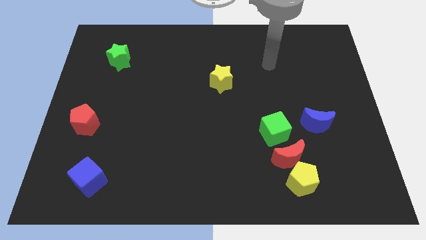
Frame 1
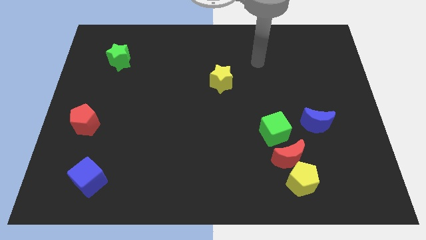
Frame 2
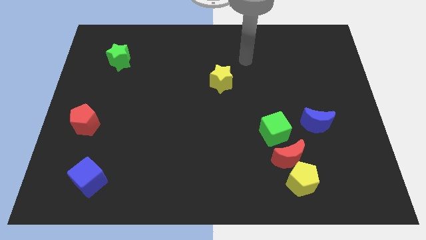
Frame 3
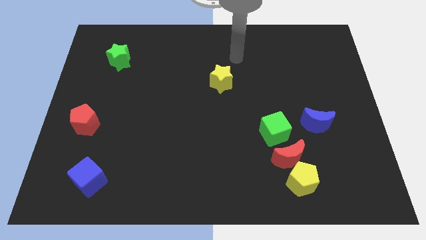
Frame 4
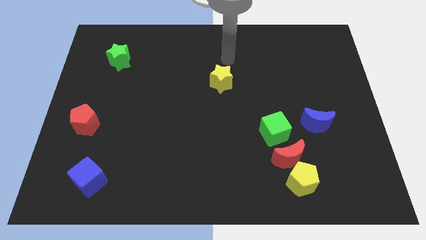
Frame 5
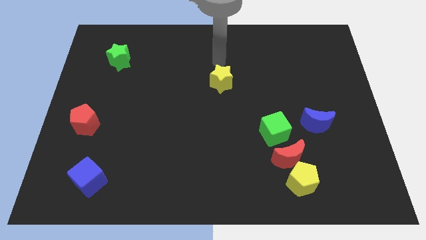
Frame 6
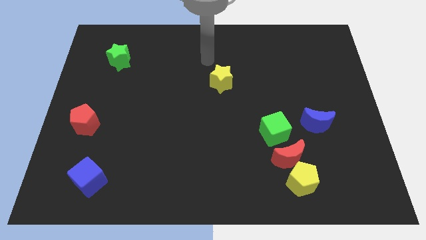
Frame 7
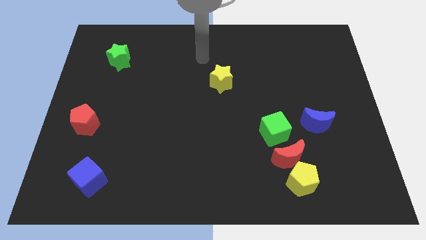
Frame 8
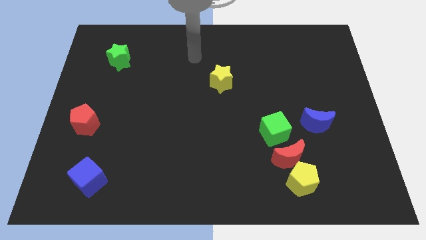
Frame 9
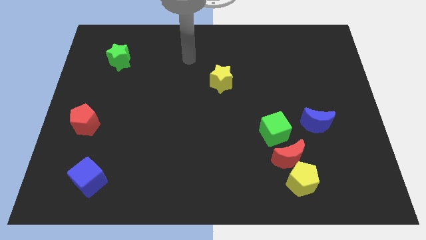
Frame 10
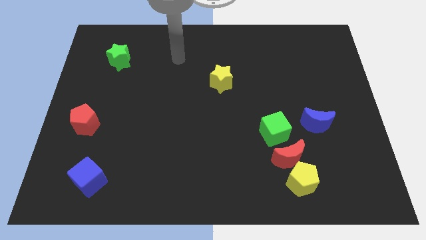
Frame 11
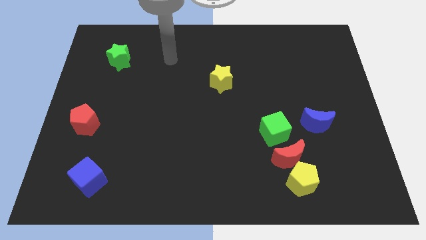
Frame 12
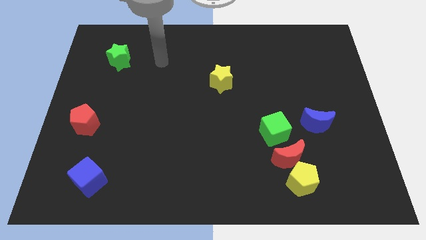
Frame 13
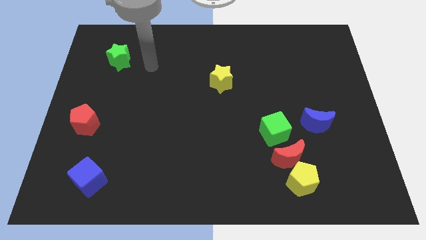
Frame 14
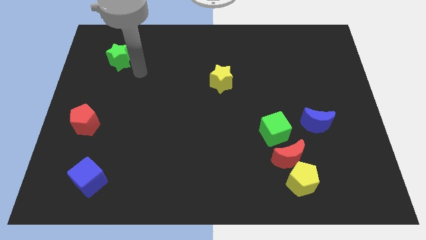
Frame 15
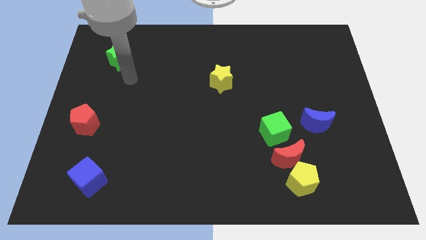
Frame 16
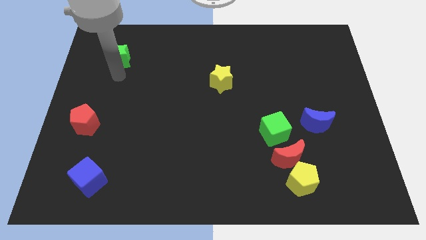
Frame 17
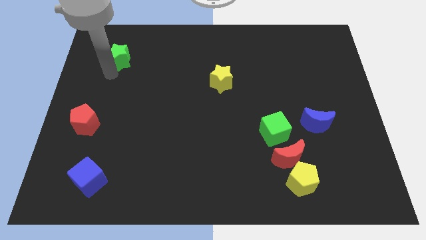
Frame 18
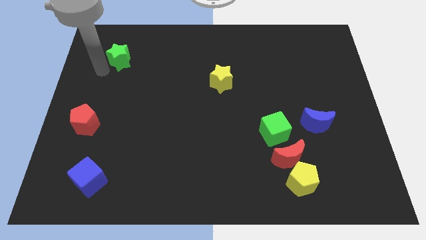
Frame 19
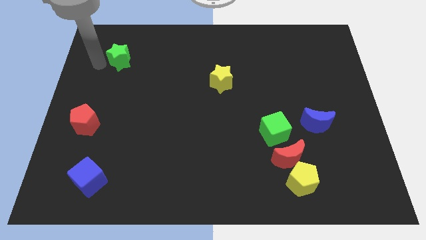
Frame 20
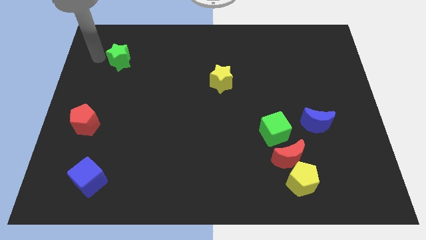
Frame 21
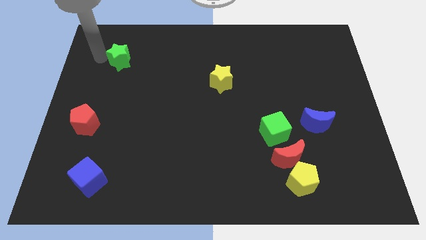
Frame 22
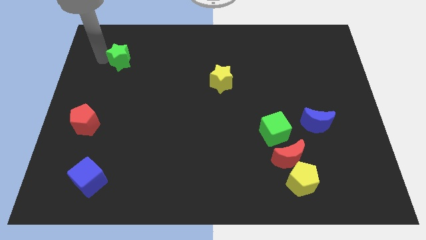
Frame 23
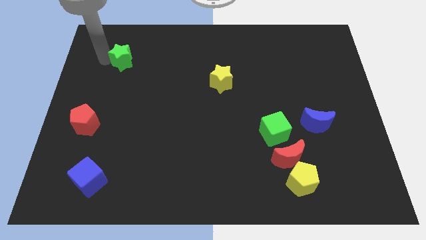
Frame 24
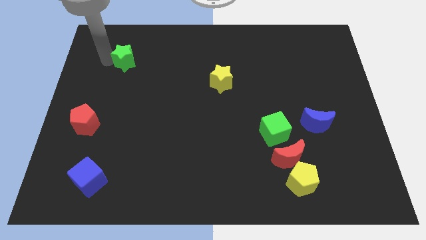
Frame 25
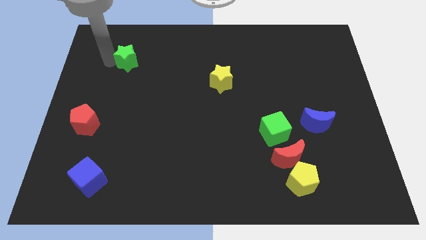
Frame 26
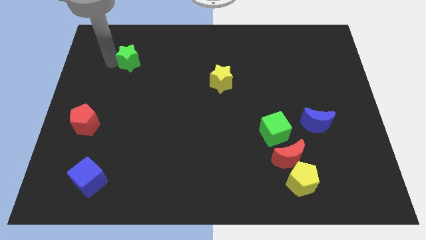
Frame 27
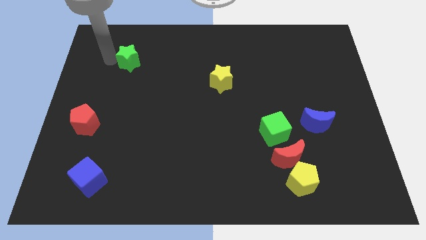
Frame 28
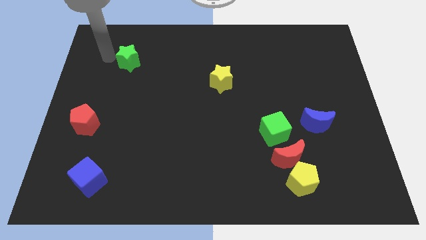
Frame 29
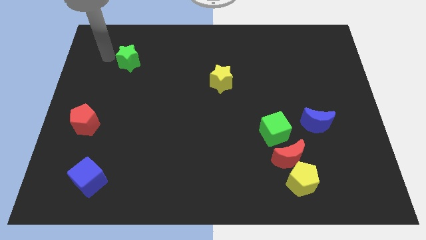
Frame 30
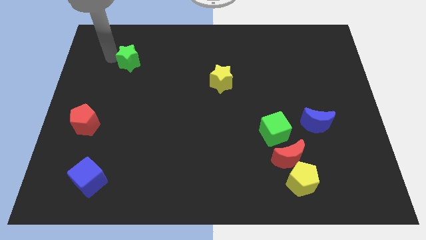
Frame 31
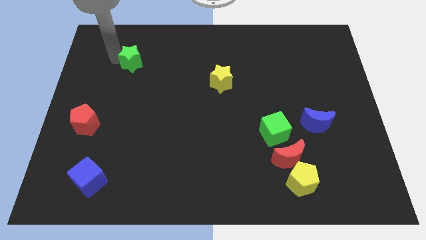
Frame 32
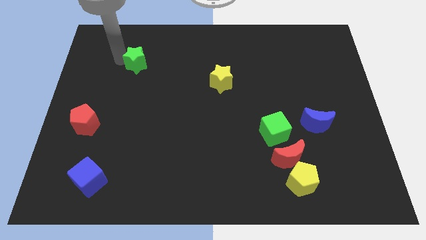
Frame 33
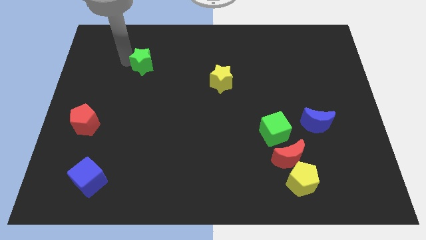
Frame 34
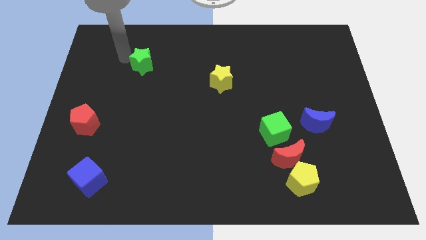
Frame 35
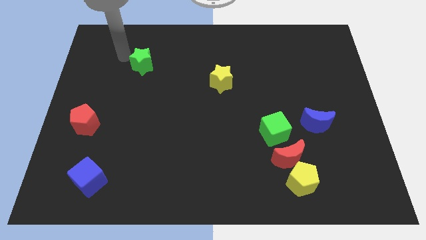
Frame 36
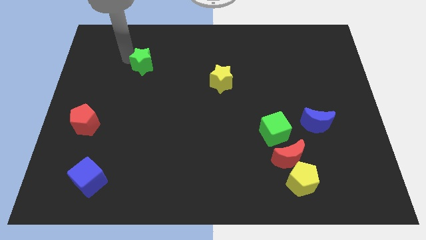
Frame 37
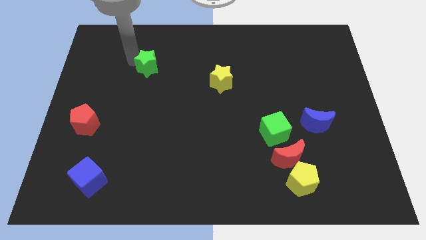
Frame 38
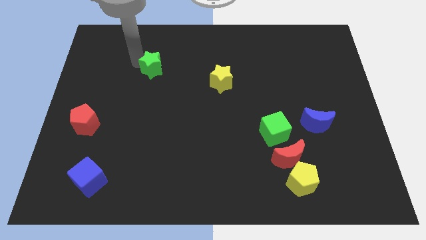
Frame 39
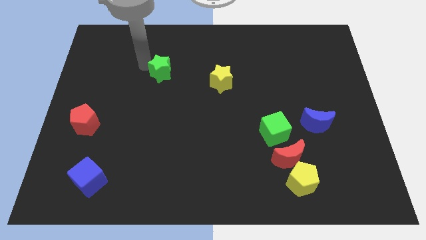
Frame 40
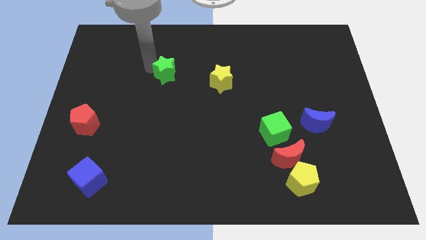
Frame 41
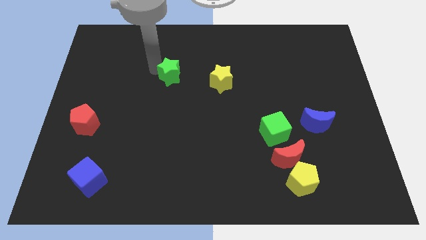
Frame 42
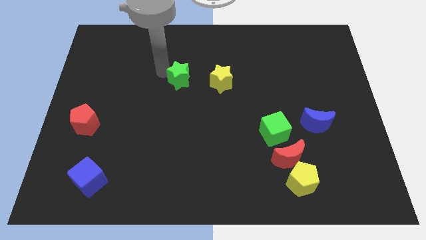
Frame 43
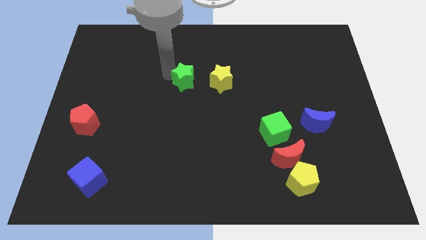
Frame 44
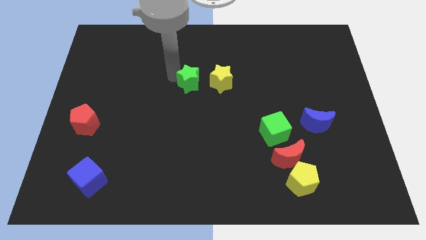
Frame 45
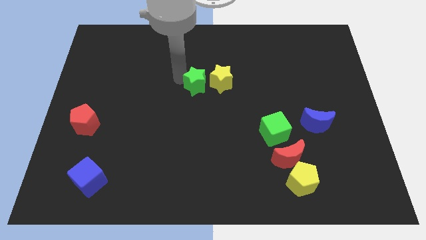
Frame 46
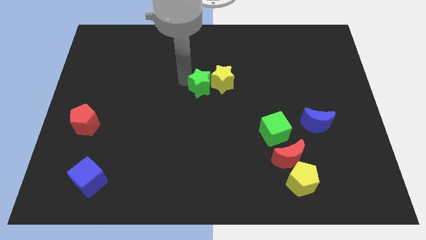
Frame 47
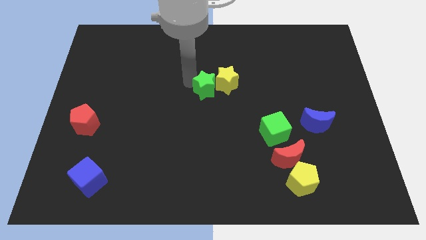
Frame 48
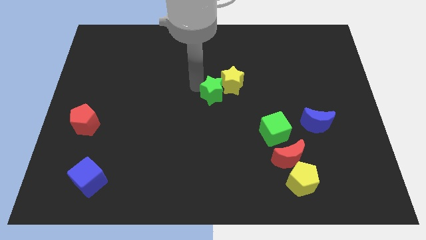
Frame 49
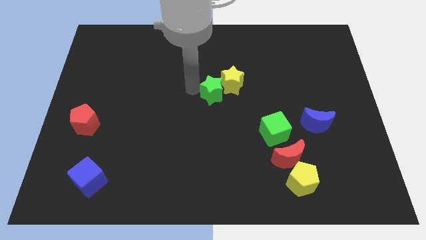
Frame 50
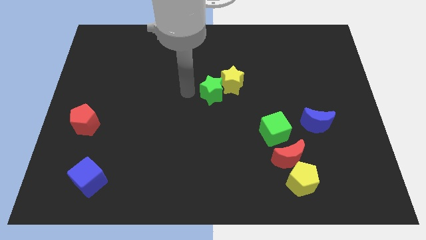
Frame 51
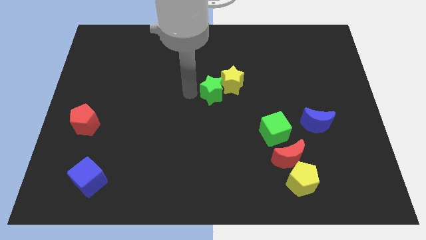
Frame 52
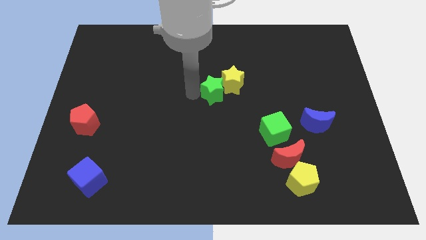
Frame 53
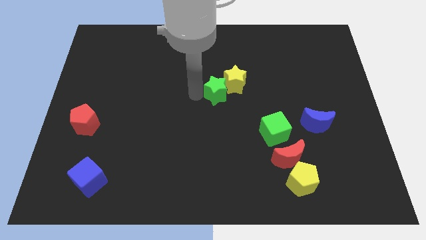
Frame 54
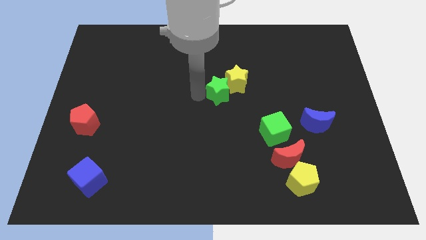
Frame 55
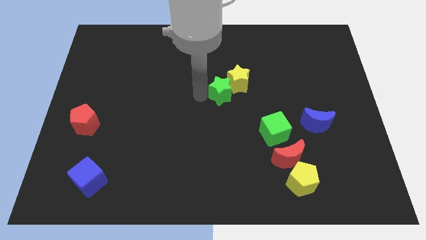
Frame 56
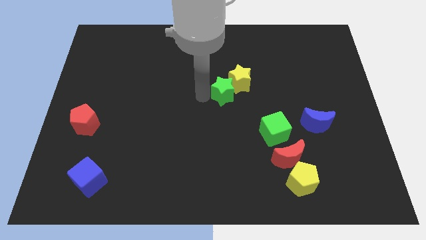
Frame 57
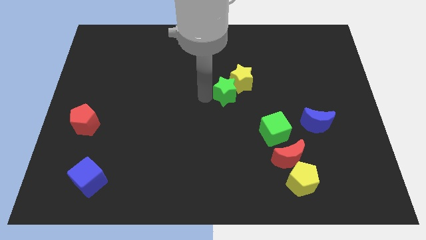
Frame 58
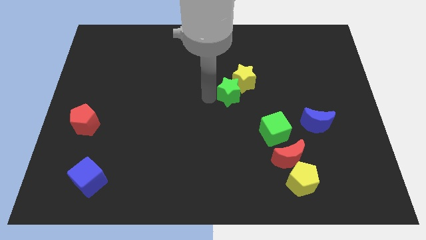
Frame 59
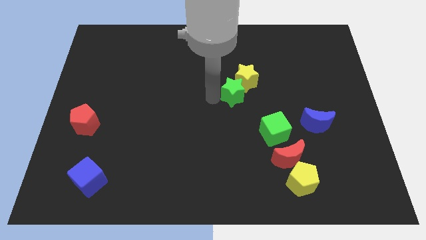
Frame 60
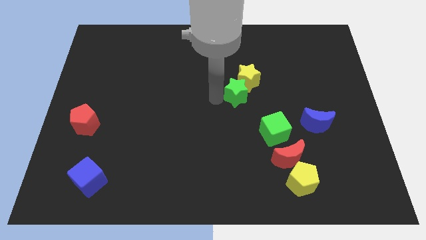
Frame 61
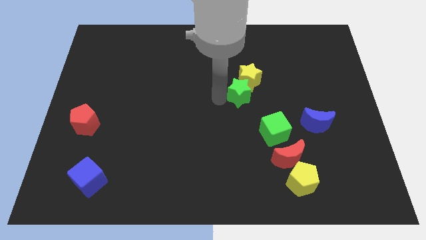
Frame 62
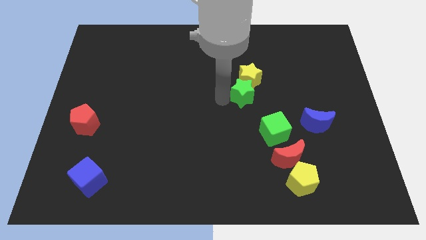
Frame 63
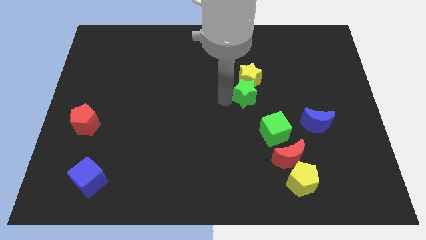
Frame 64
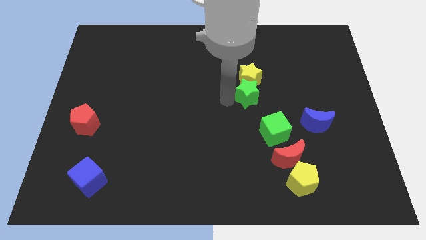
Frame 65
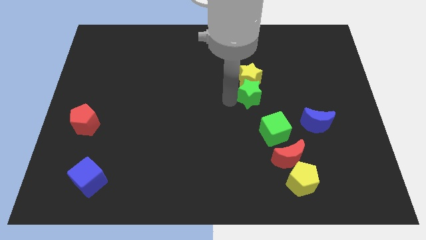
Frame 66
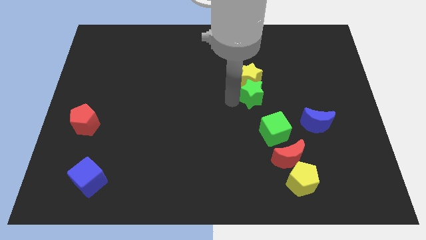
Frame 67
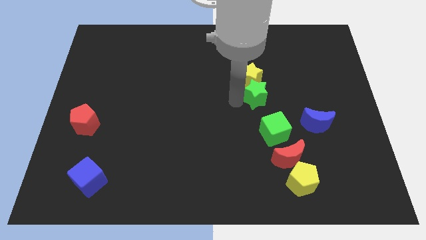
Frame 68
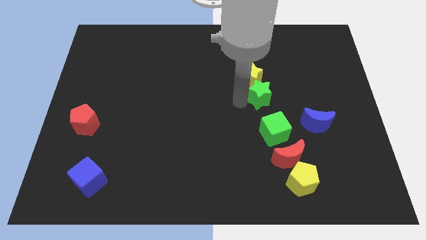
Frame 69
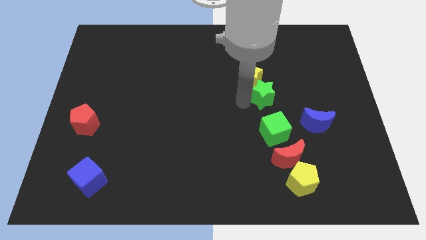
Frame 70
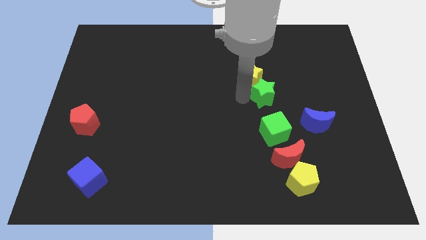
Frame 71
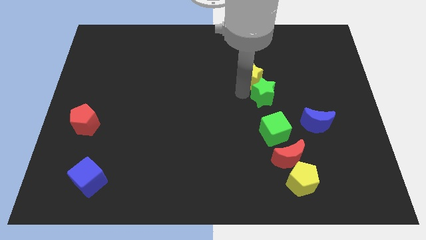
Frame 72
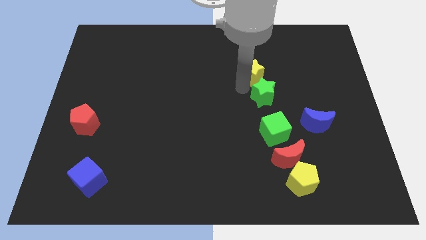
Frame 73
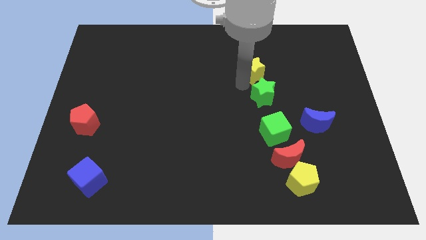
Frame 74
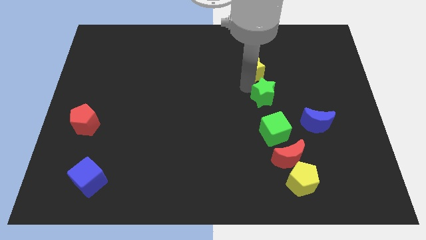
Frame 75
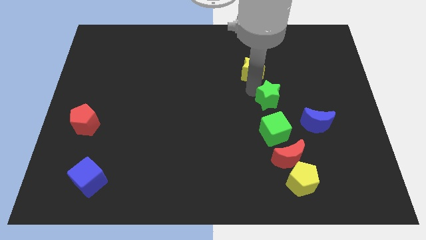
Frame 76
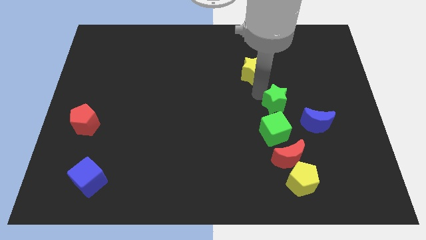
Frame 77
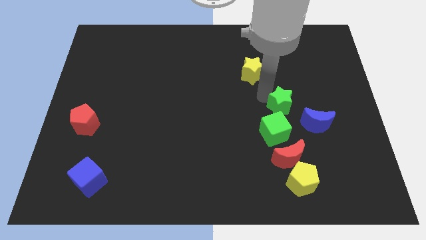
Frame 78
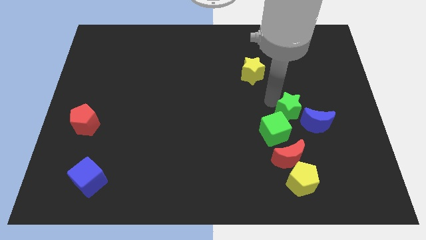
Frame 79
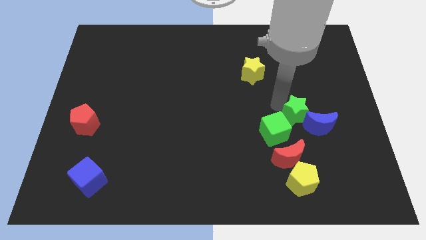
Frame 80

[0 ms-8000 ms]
move the green star towards the blue moon

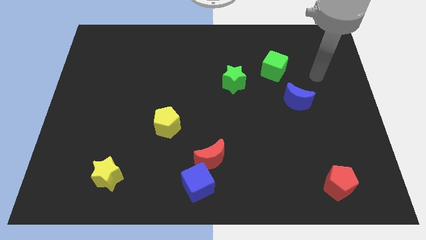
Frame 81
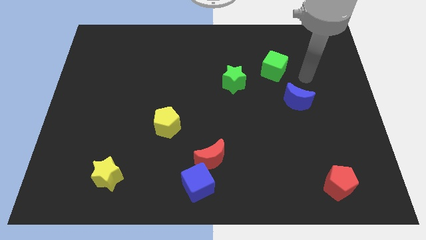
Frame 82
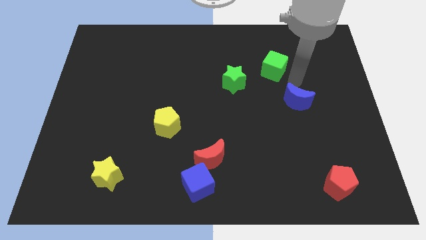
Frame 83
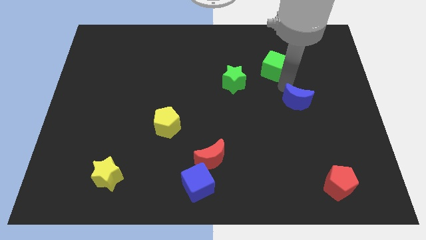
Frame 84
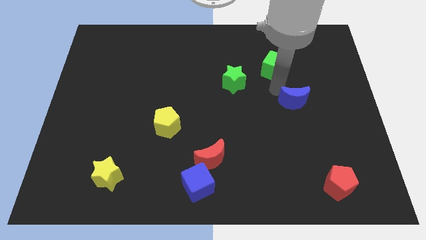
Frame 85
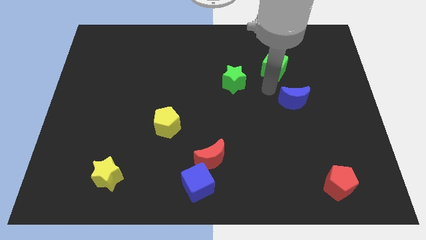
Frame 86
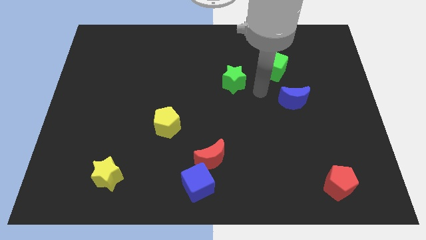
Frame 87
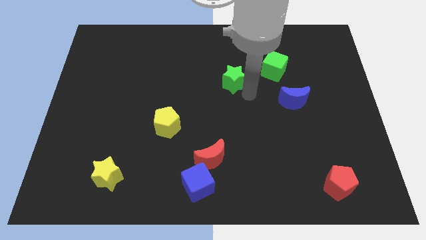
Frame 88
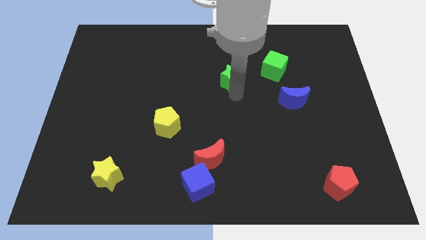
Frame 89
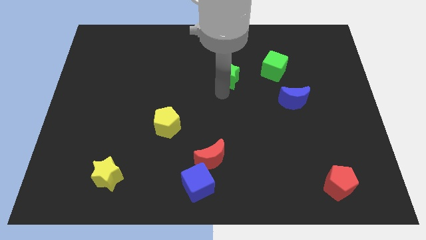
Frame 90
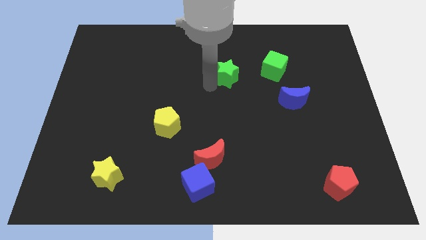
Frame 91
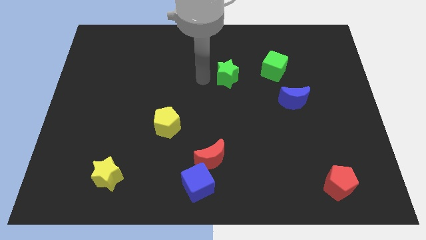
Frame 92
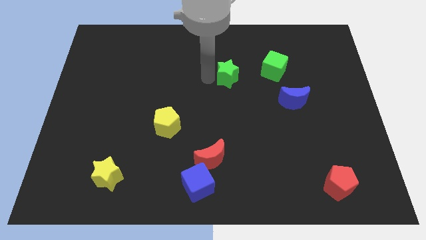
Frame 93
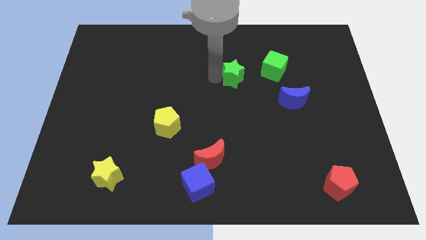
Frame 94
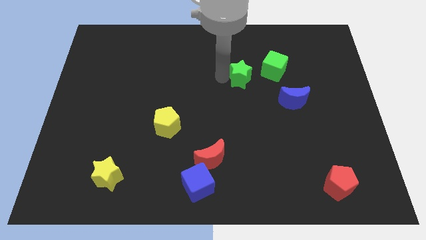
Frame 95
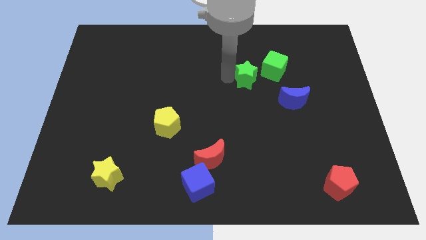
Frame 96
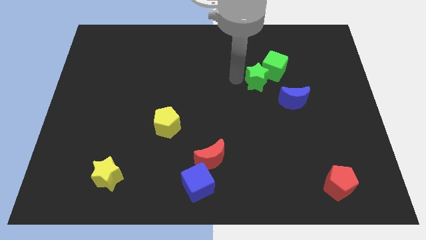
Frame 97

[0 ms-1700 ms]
slide the green star next to the green cube
